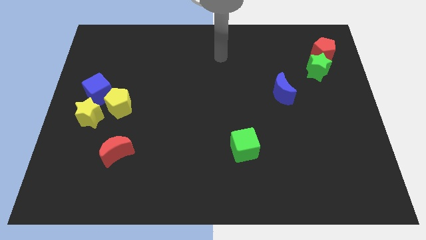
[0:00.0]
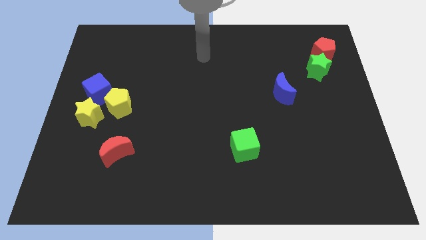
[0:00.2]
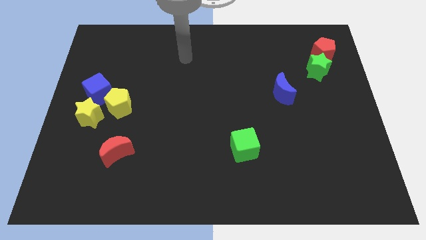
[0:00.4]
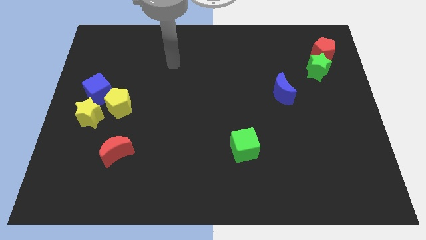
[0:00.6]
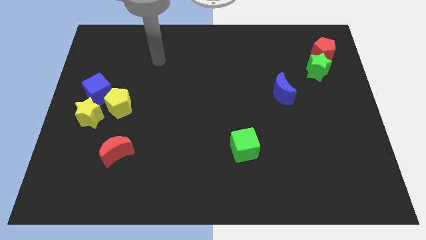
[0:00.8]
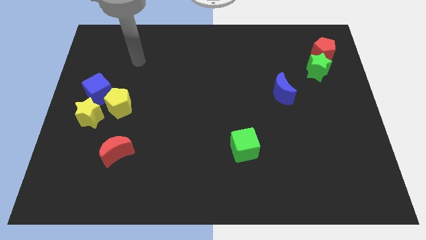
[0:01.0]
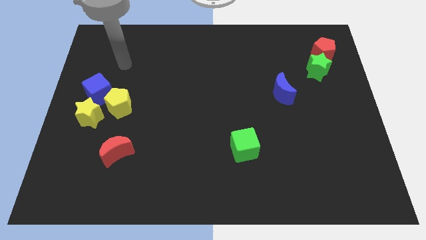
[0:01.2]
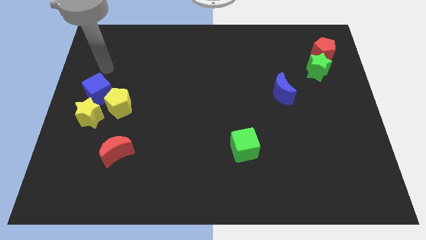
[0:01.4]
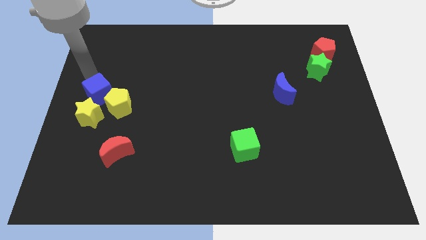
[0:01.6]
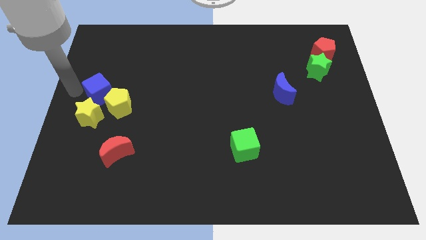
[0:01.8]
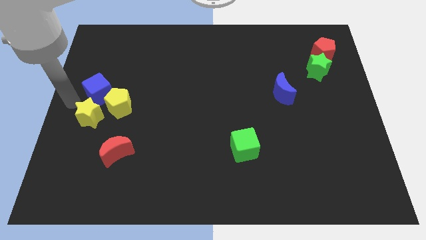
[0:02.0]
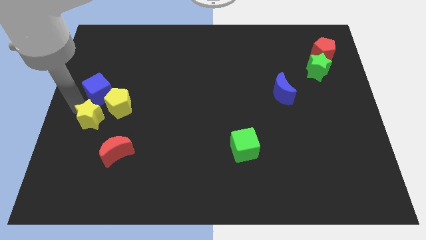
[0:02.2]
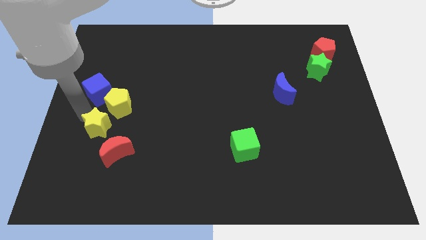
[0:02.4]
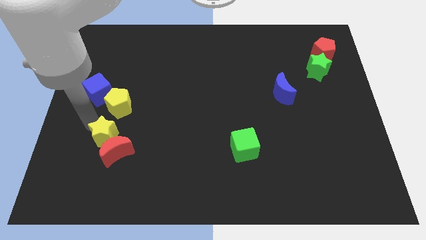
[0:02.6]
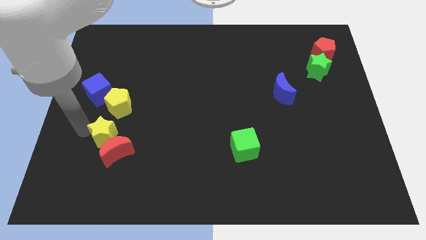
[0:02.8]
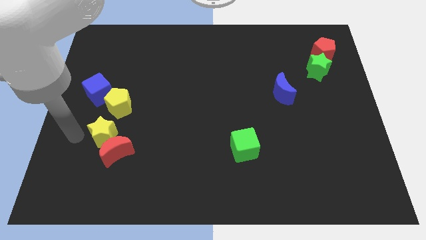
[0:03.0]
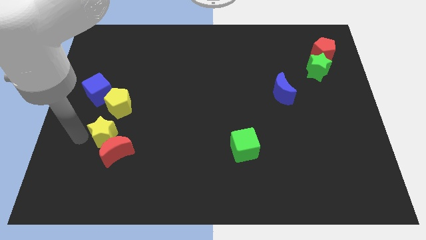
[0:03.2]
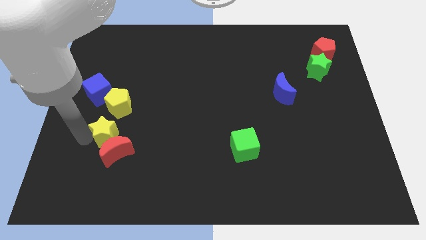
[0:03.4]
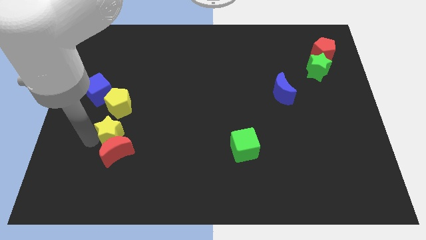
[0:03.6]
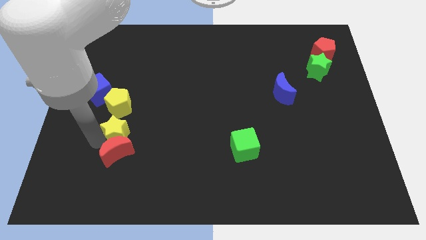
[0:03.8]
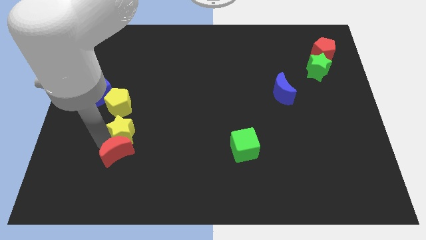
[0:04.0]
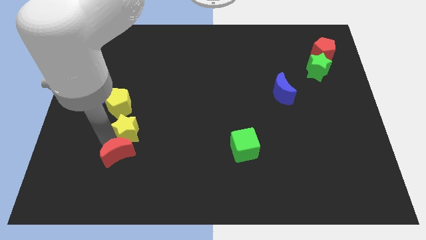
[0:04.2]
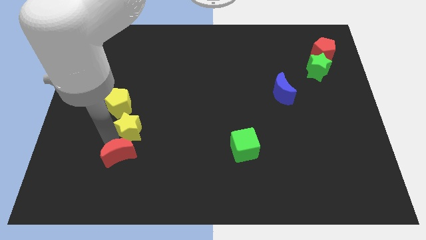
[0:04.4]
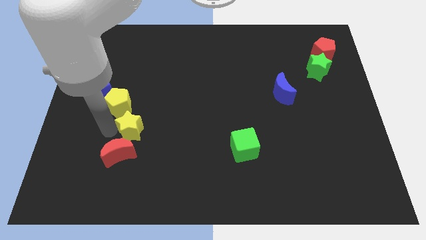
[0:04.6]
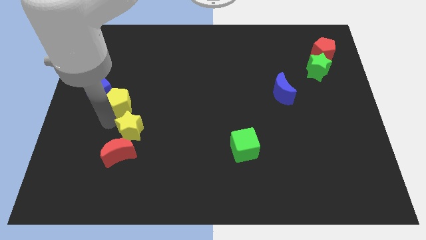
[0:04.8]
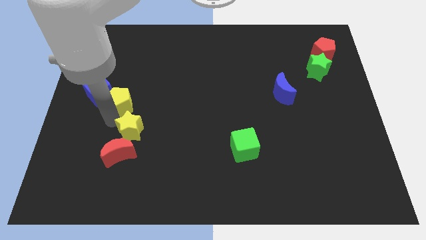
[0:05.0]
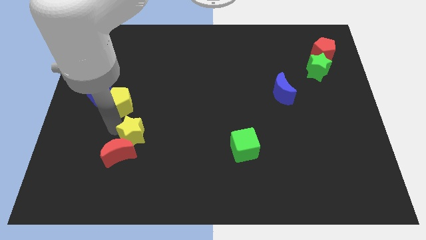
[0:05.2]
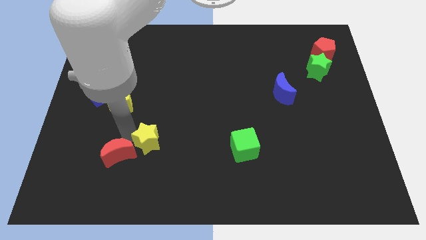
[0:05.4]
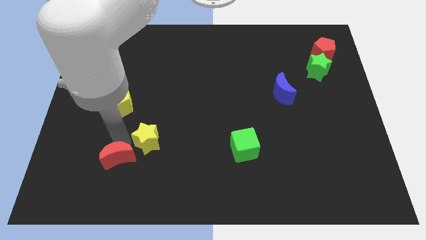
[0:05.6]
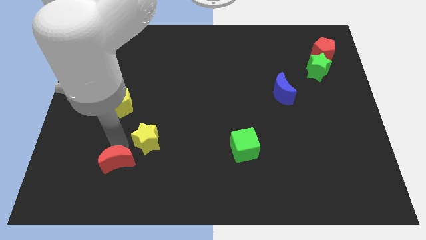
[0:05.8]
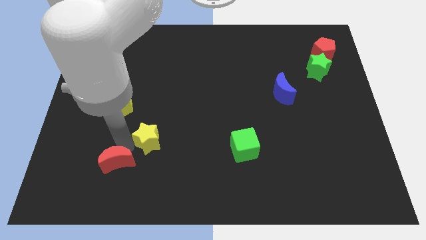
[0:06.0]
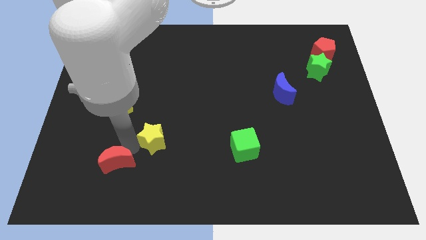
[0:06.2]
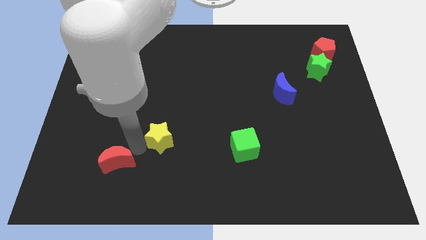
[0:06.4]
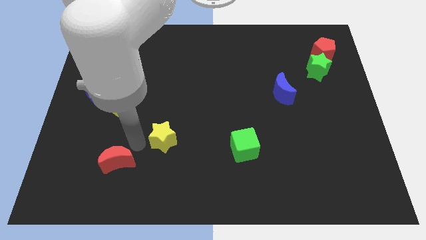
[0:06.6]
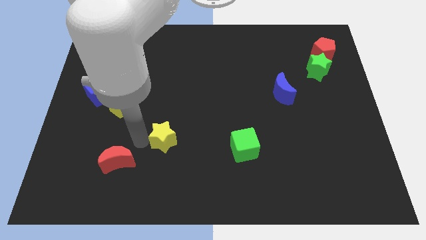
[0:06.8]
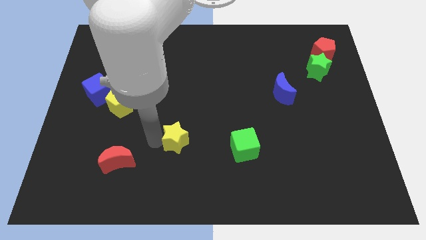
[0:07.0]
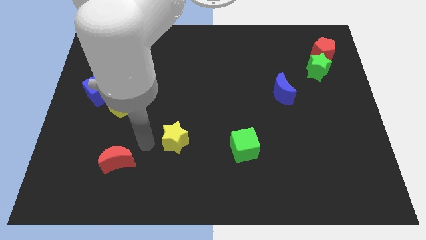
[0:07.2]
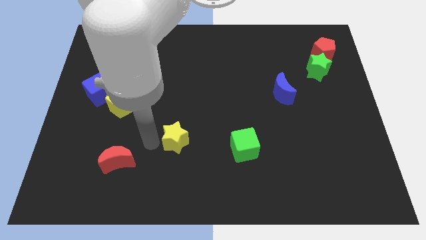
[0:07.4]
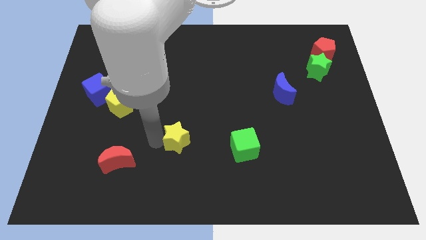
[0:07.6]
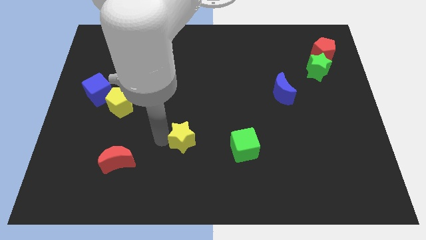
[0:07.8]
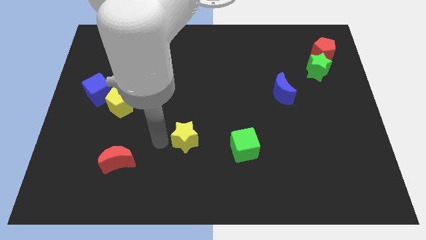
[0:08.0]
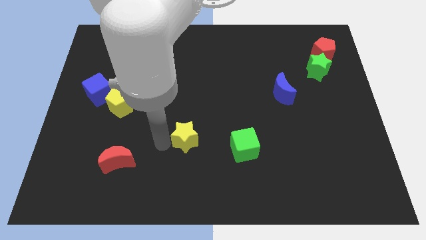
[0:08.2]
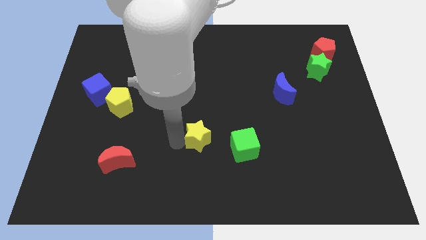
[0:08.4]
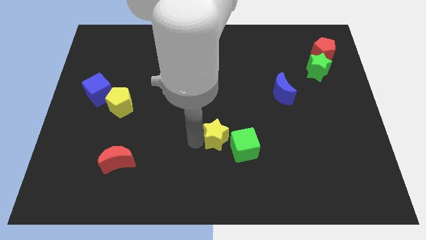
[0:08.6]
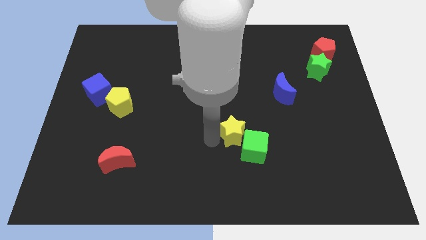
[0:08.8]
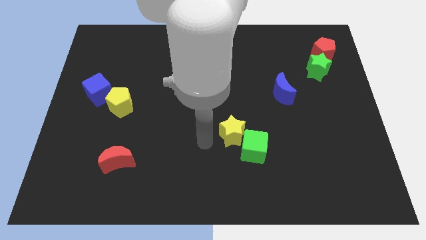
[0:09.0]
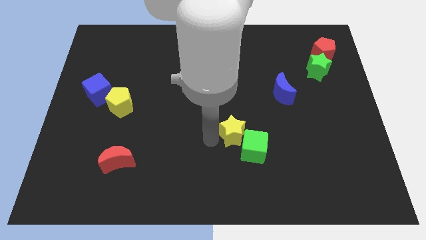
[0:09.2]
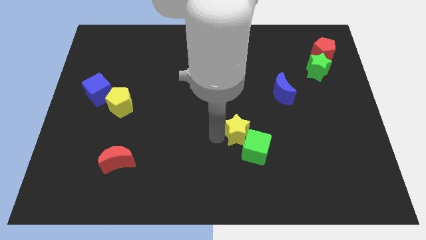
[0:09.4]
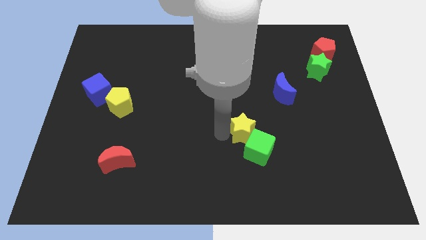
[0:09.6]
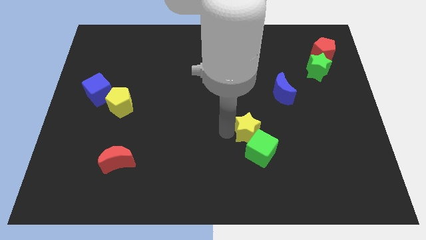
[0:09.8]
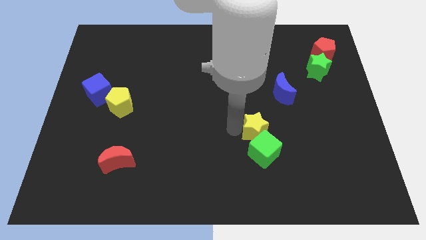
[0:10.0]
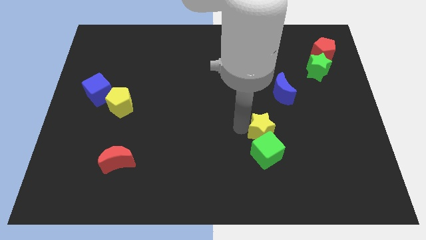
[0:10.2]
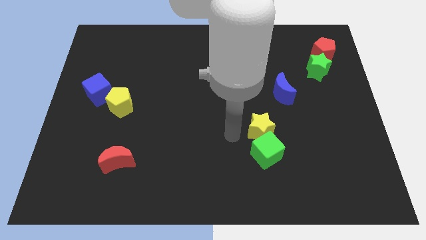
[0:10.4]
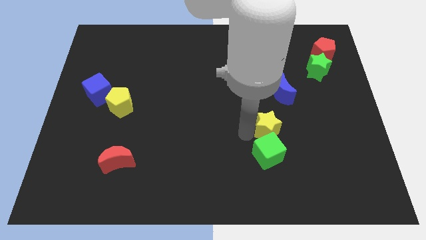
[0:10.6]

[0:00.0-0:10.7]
slide the yellow star below the blue moon

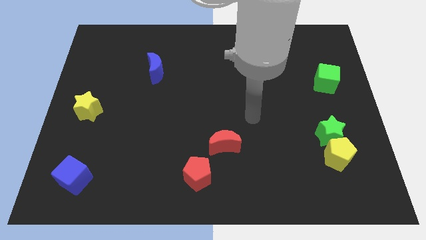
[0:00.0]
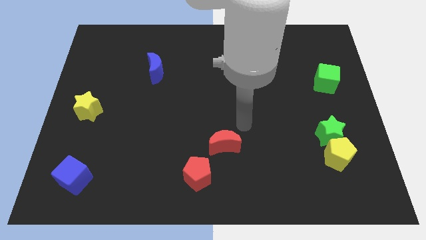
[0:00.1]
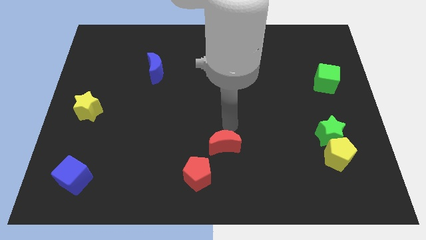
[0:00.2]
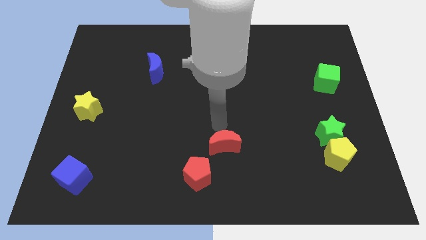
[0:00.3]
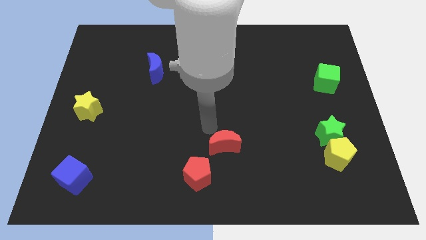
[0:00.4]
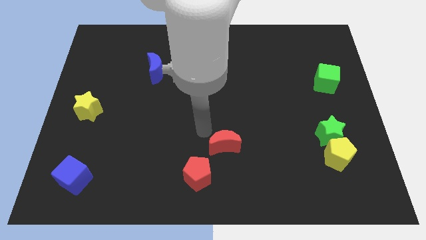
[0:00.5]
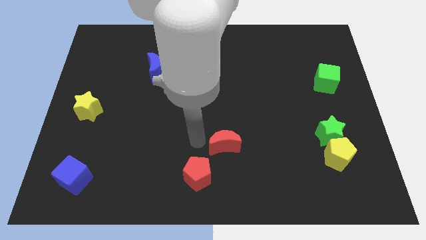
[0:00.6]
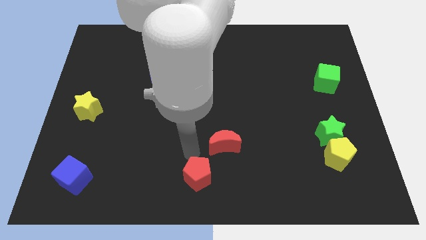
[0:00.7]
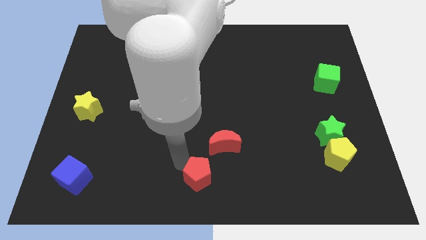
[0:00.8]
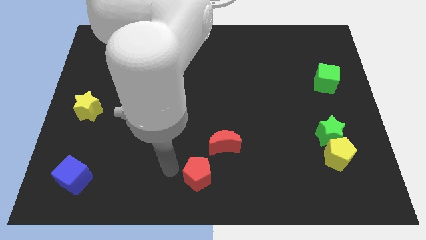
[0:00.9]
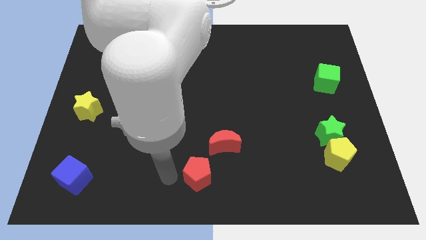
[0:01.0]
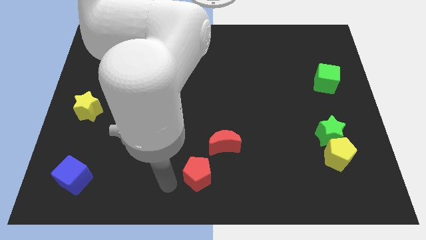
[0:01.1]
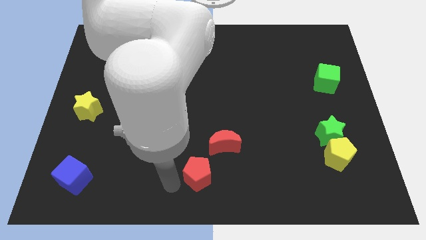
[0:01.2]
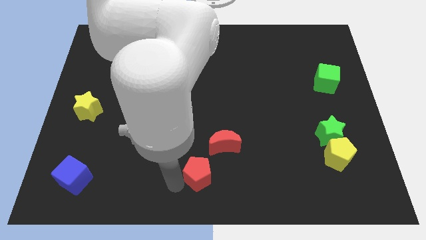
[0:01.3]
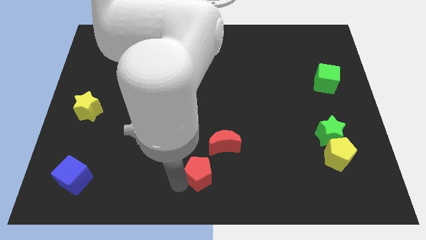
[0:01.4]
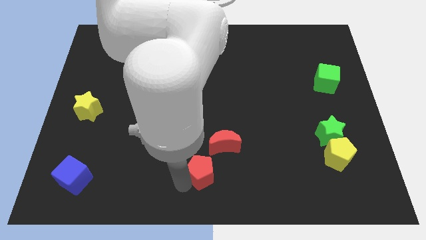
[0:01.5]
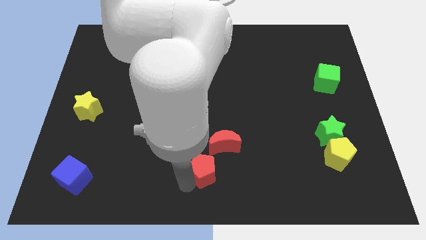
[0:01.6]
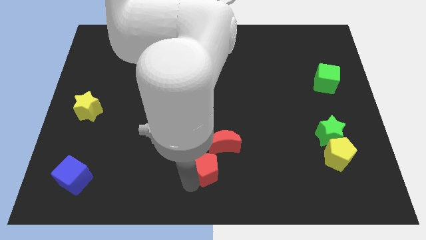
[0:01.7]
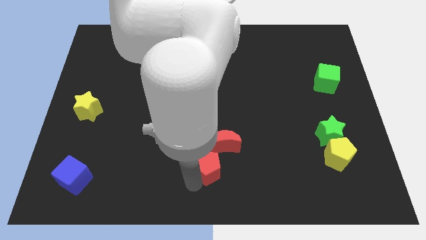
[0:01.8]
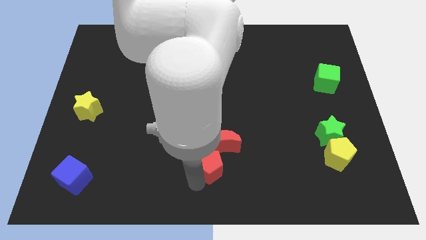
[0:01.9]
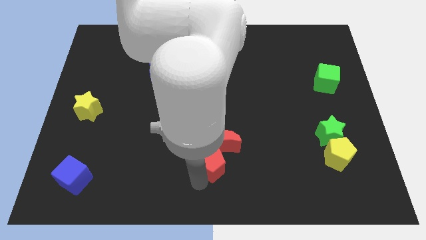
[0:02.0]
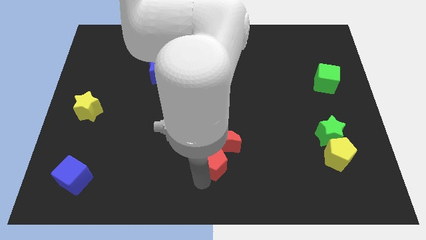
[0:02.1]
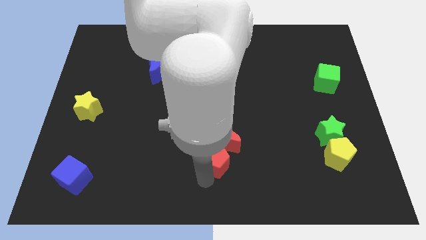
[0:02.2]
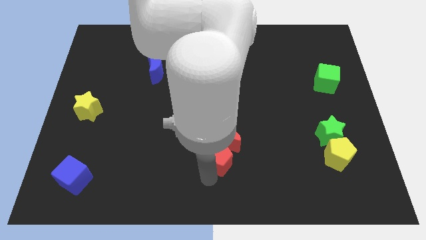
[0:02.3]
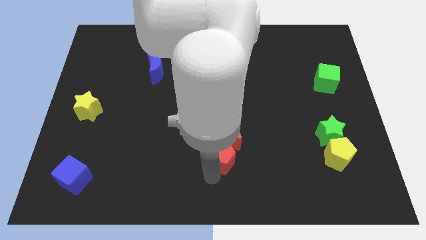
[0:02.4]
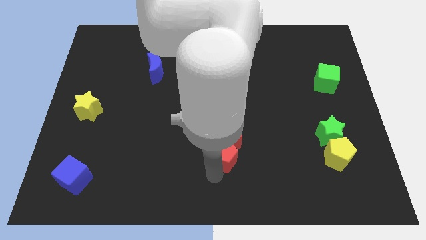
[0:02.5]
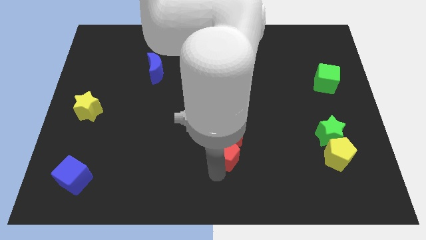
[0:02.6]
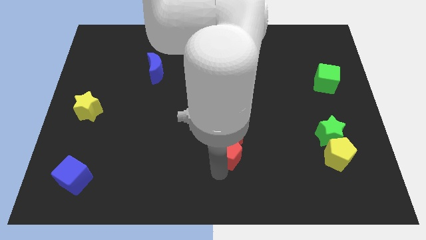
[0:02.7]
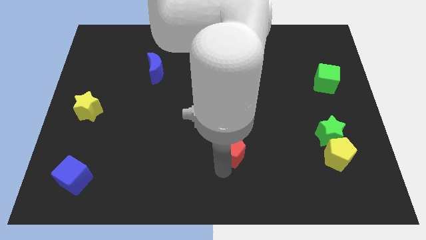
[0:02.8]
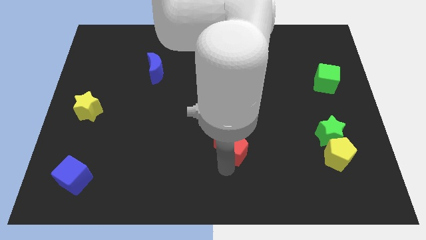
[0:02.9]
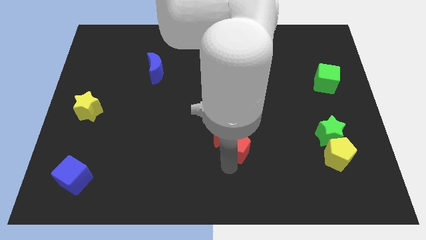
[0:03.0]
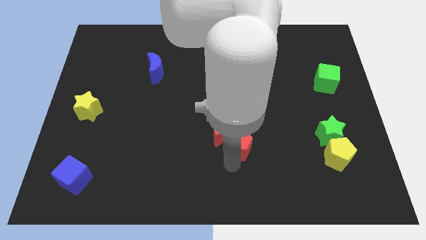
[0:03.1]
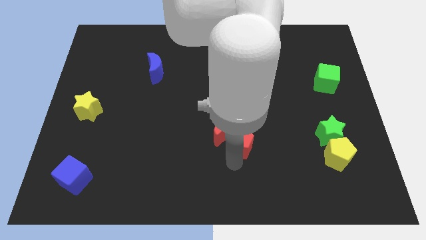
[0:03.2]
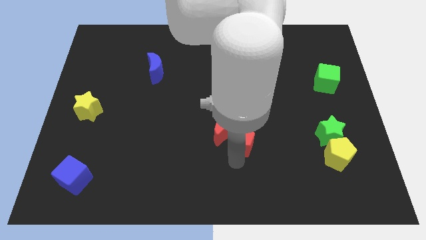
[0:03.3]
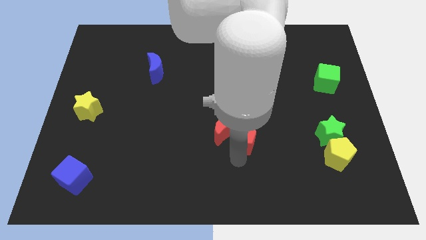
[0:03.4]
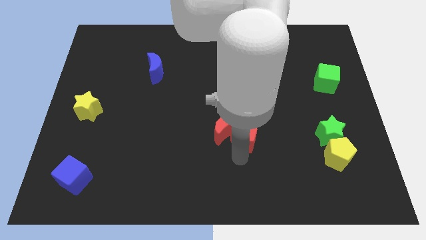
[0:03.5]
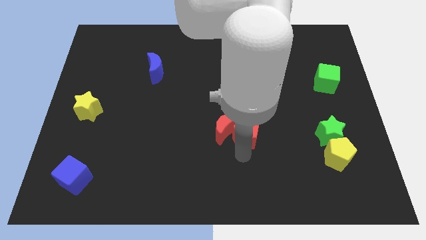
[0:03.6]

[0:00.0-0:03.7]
slide the red pentagon diagonally up and to the right of the red moon
